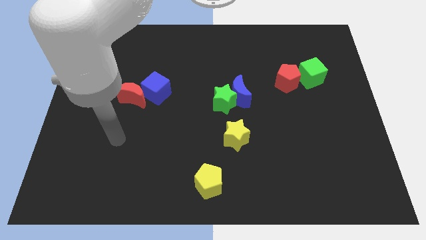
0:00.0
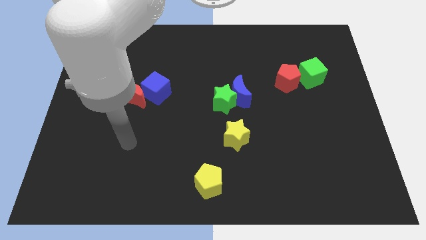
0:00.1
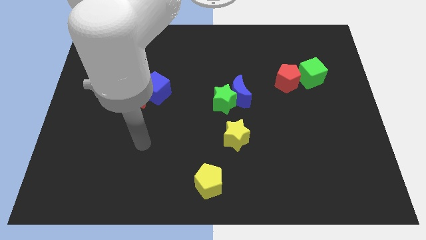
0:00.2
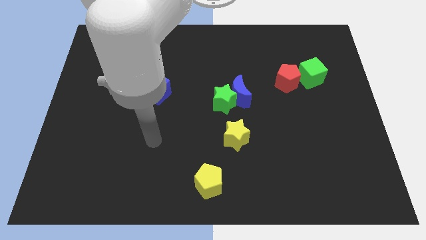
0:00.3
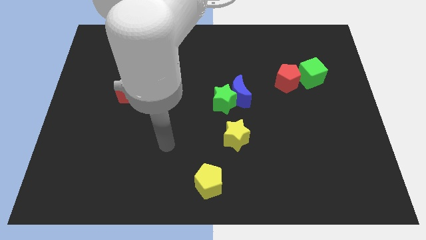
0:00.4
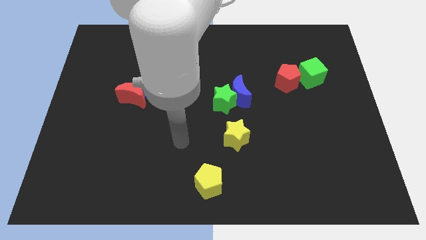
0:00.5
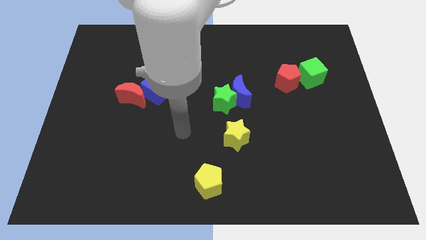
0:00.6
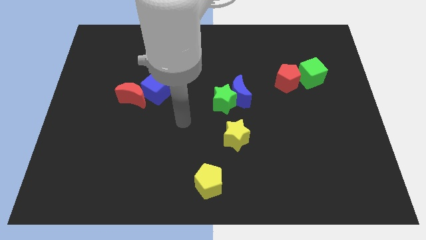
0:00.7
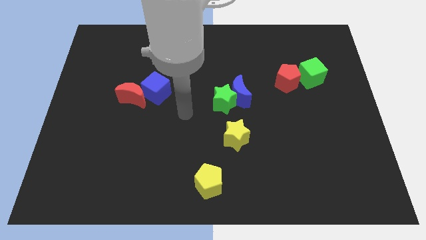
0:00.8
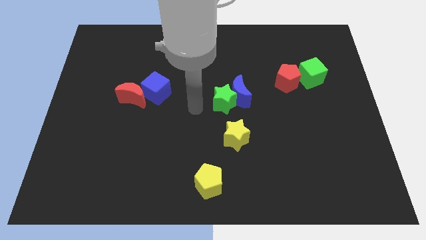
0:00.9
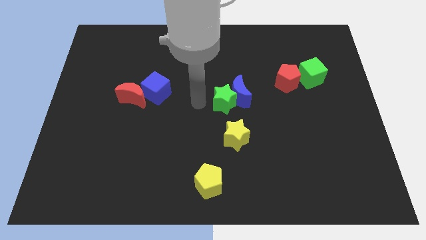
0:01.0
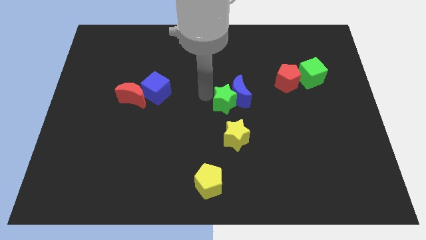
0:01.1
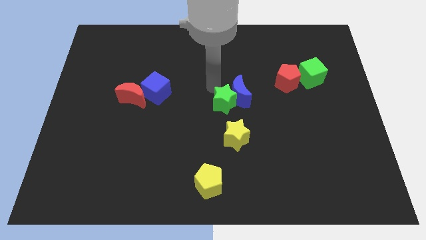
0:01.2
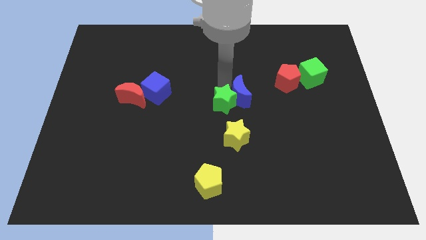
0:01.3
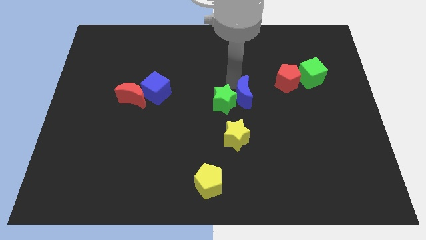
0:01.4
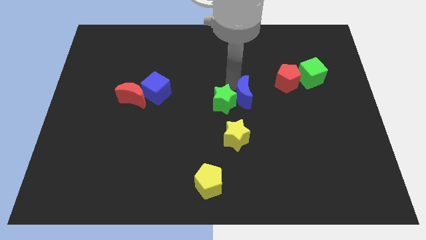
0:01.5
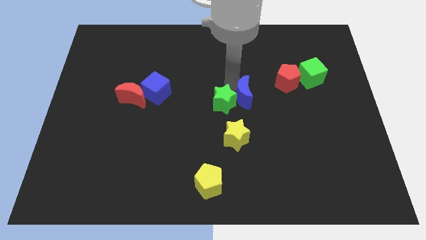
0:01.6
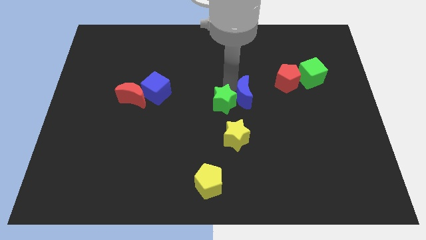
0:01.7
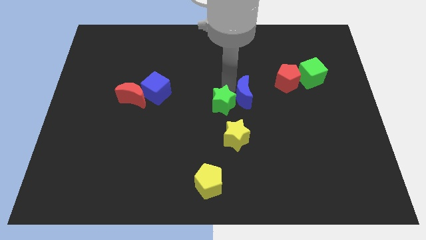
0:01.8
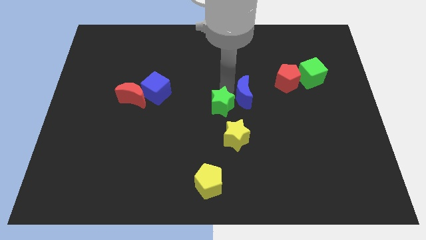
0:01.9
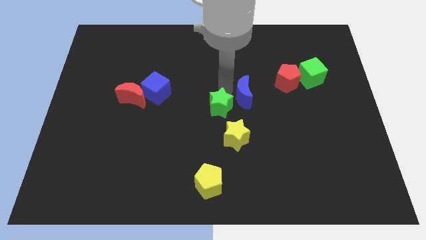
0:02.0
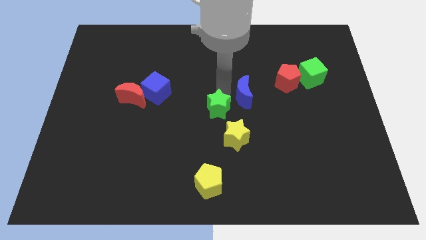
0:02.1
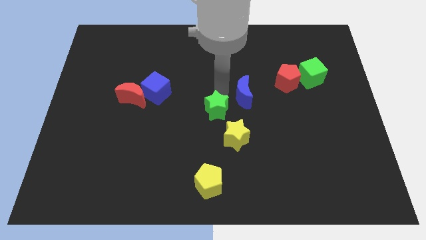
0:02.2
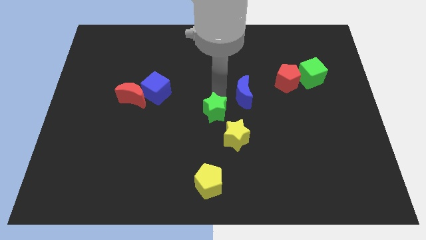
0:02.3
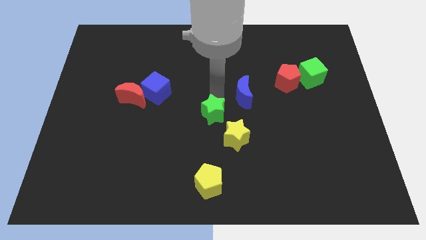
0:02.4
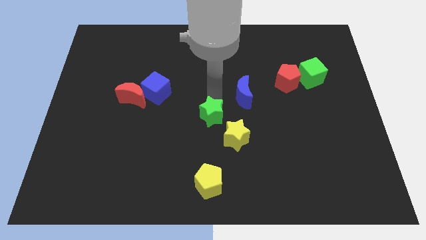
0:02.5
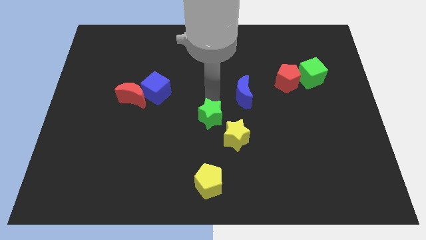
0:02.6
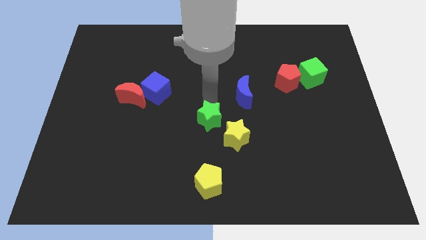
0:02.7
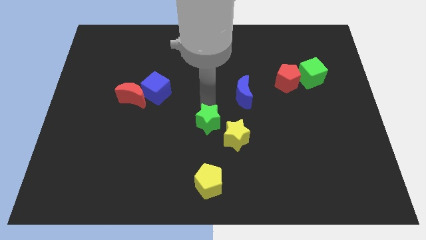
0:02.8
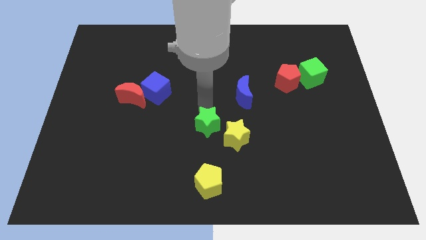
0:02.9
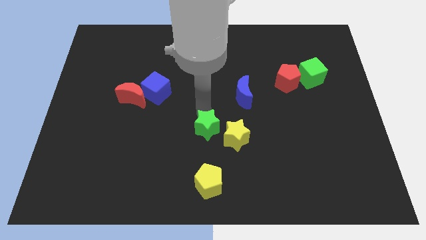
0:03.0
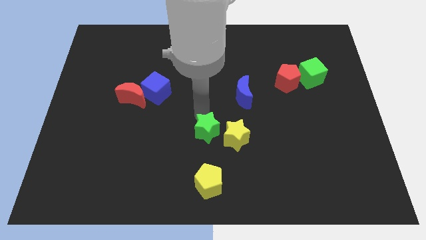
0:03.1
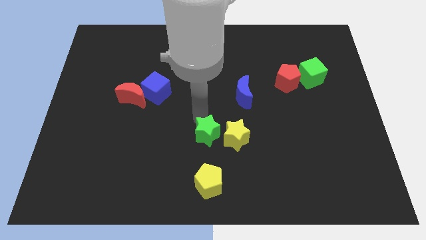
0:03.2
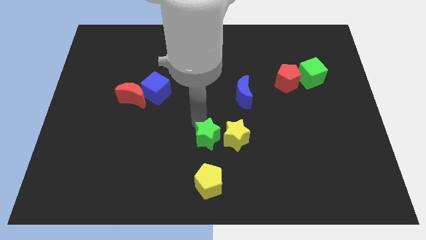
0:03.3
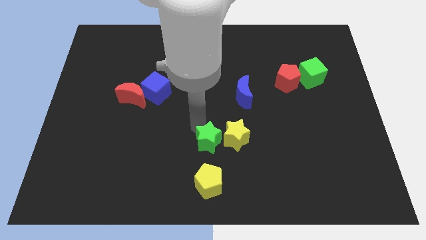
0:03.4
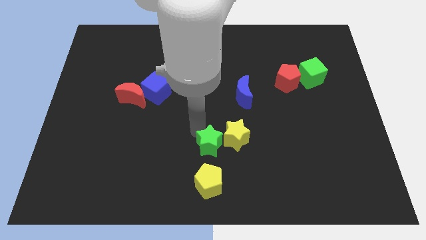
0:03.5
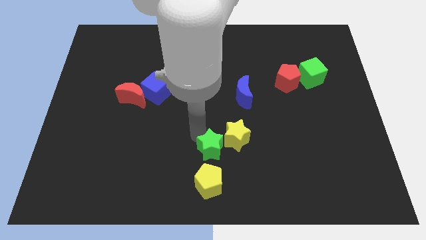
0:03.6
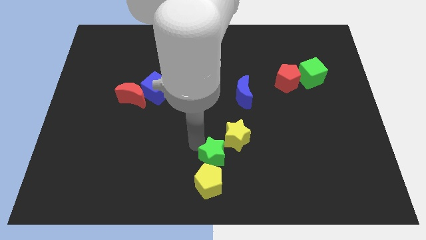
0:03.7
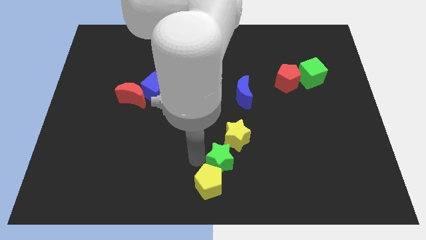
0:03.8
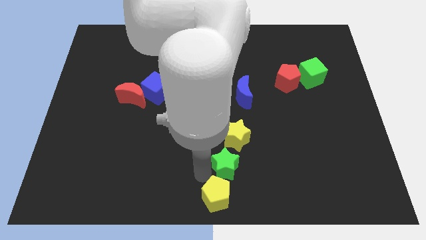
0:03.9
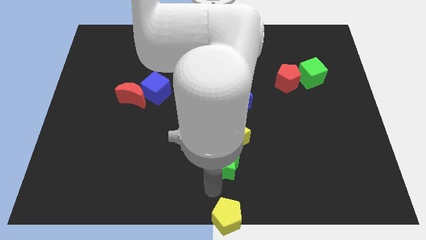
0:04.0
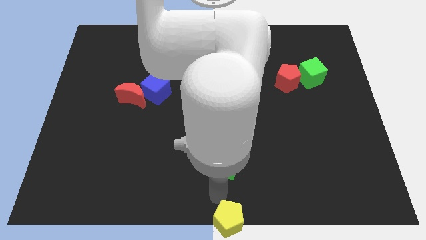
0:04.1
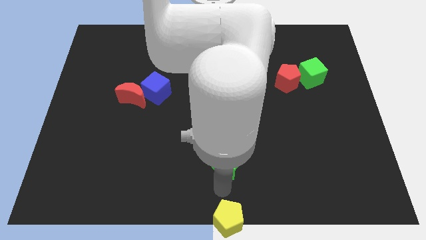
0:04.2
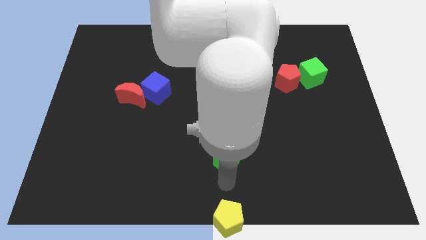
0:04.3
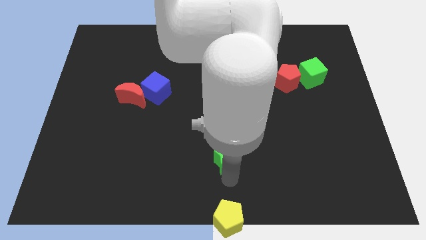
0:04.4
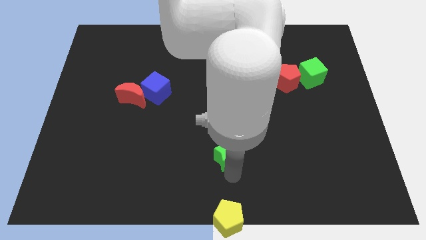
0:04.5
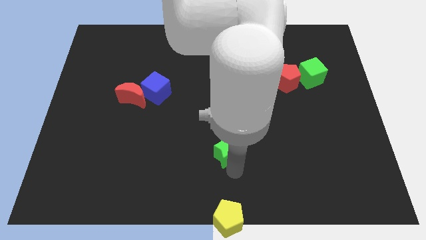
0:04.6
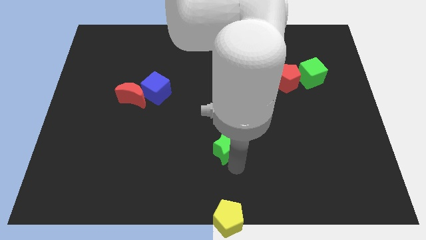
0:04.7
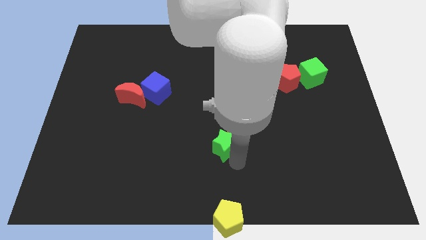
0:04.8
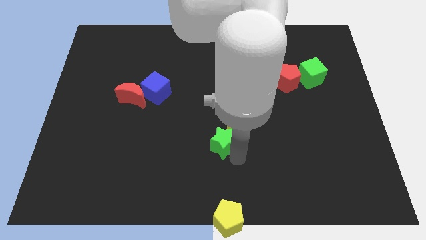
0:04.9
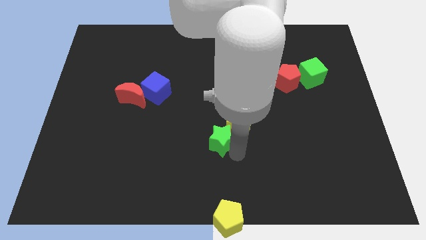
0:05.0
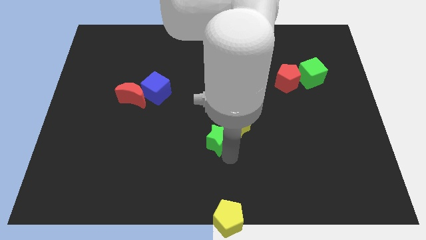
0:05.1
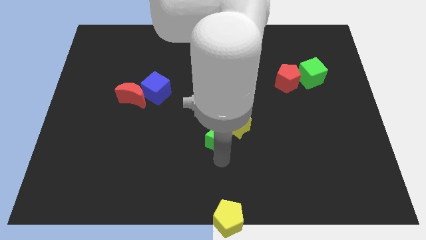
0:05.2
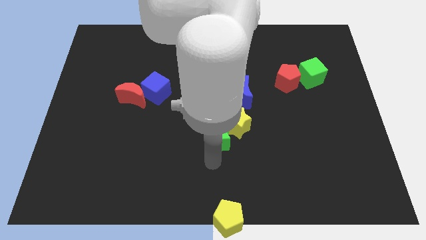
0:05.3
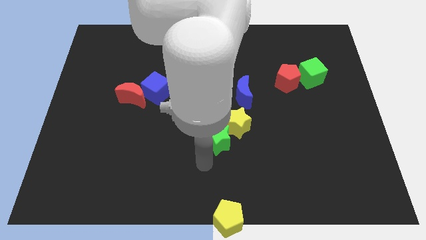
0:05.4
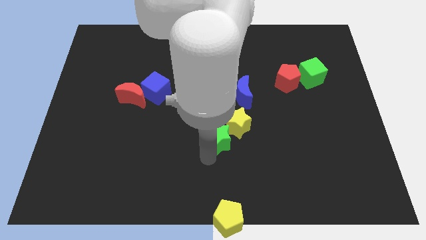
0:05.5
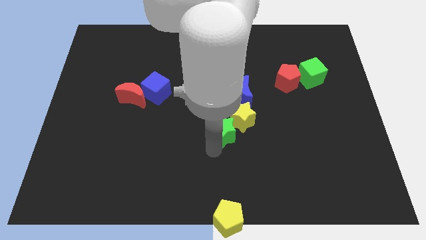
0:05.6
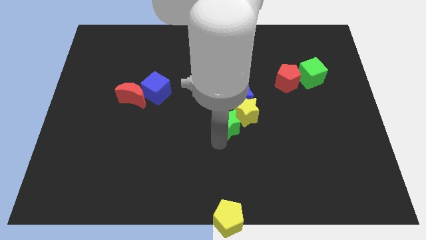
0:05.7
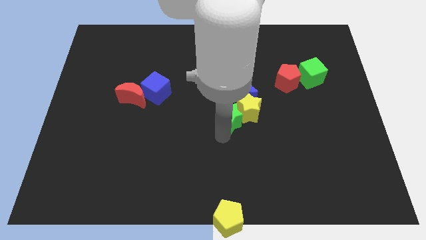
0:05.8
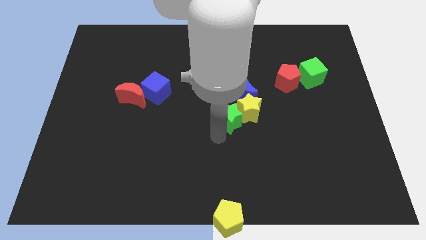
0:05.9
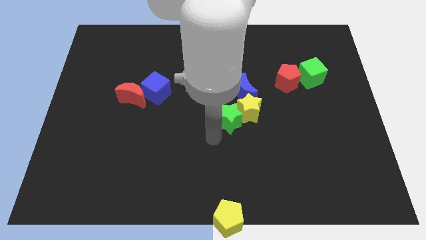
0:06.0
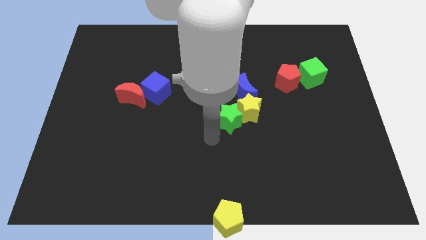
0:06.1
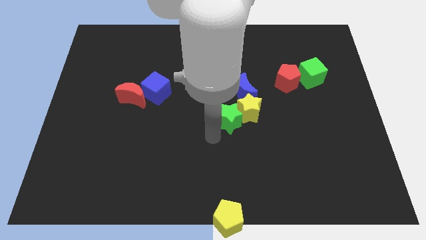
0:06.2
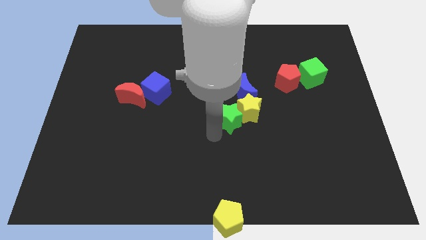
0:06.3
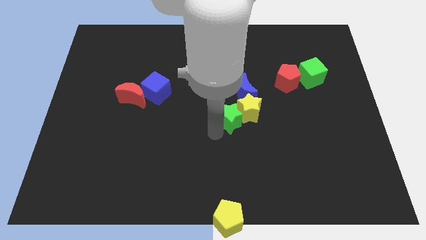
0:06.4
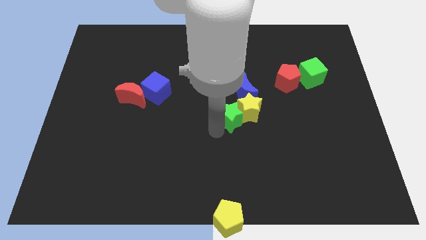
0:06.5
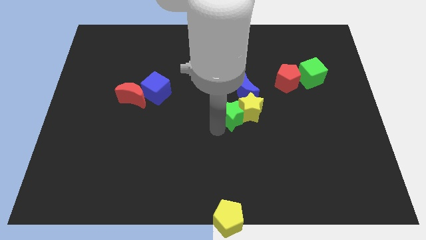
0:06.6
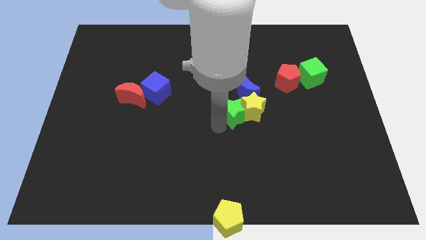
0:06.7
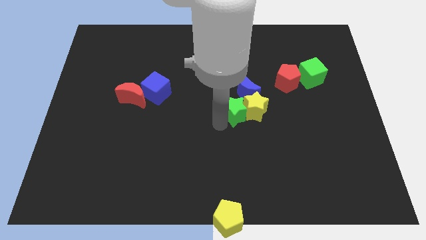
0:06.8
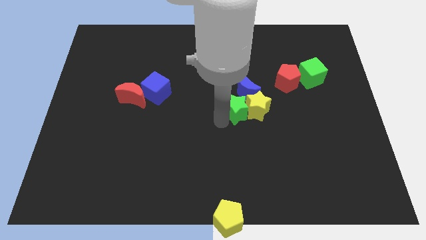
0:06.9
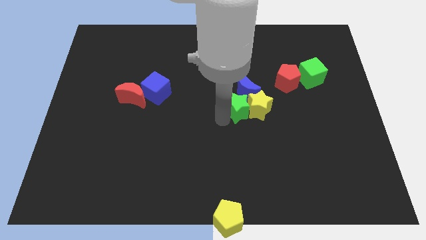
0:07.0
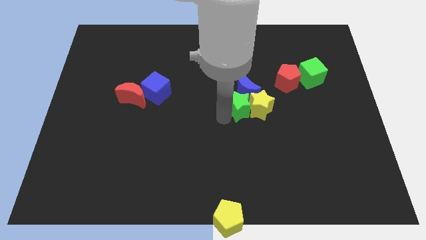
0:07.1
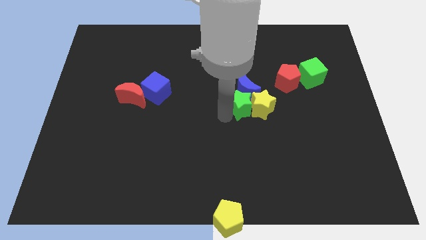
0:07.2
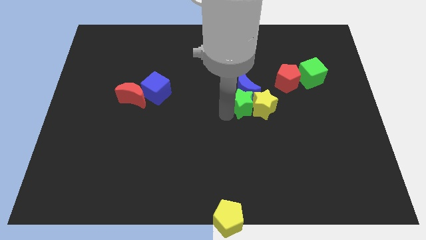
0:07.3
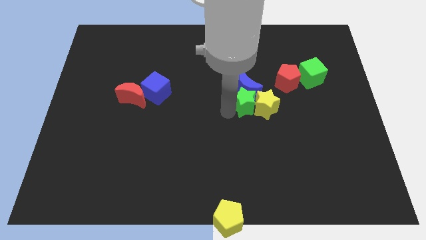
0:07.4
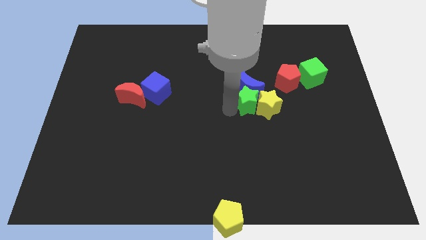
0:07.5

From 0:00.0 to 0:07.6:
move the green star to the bottom left of the red pentagon
